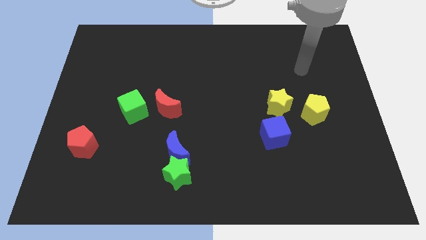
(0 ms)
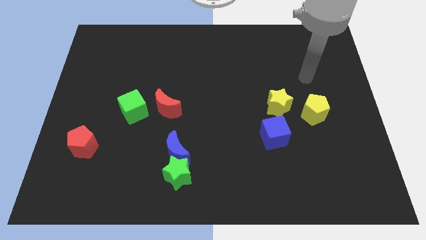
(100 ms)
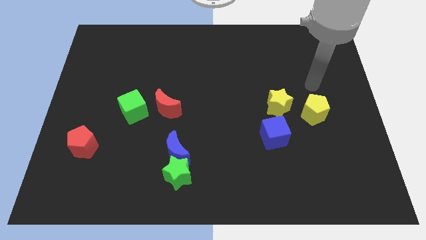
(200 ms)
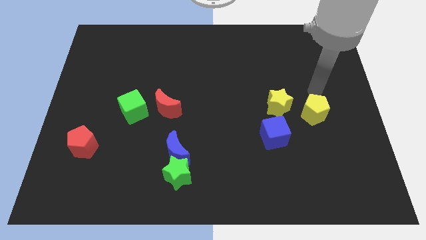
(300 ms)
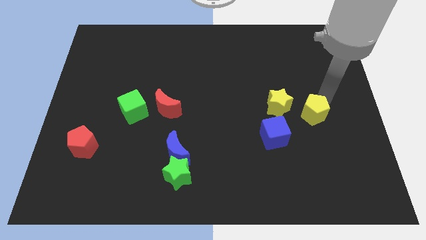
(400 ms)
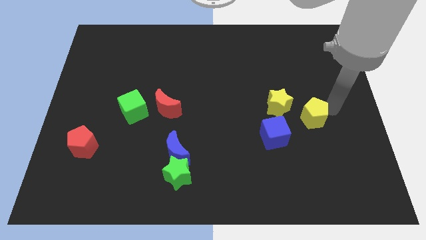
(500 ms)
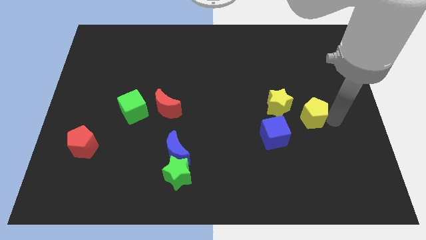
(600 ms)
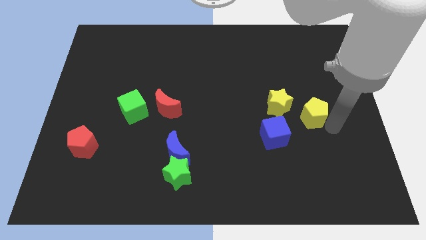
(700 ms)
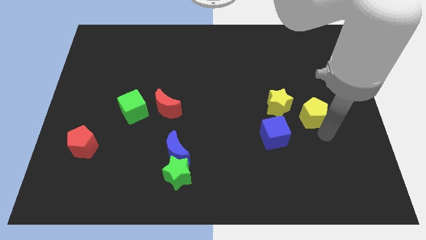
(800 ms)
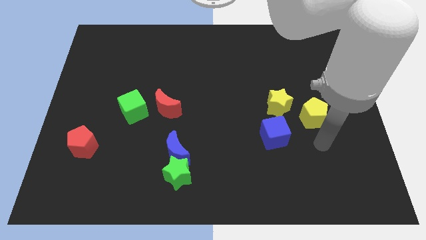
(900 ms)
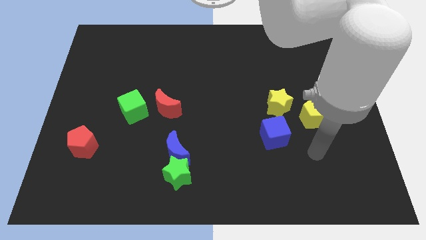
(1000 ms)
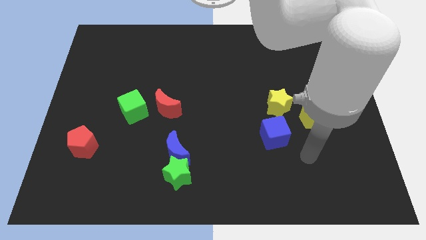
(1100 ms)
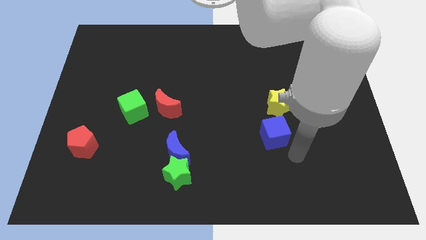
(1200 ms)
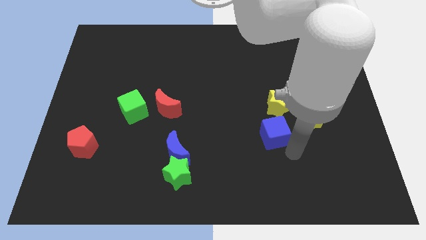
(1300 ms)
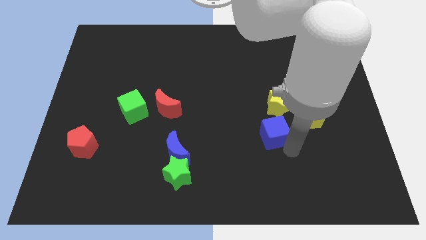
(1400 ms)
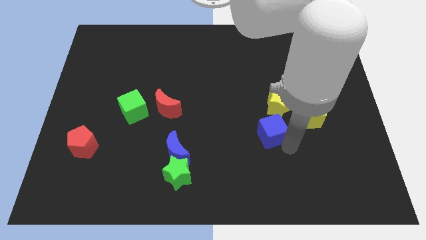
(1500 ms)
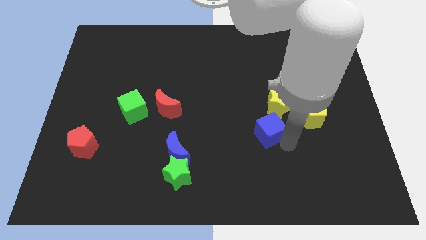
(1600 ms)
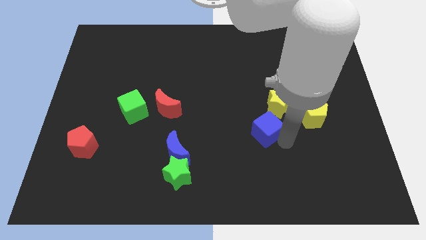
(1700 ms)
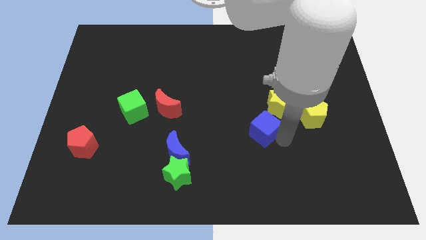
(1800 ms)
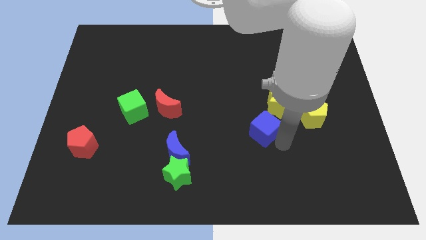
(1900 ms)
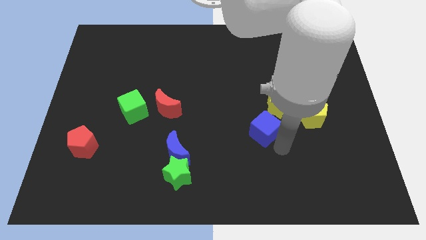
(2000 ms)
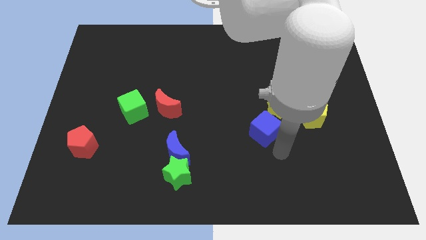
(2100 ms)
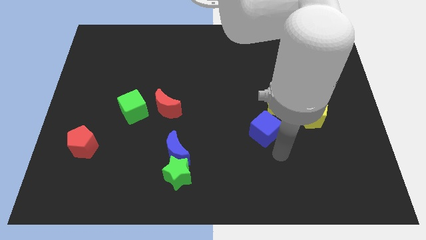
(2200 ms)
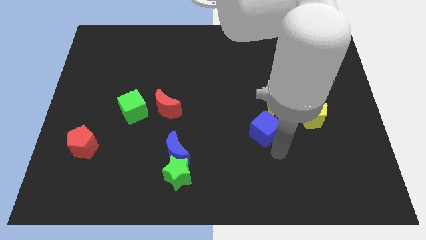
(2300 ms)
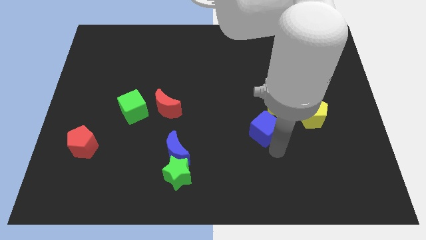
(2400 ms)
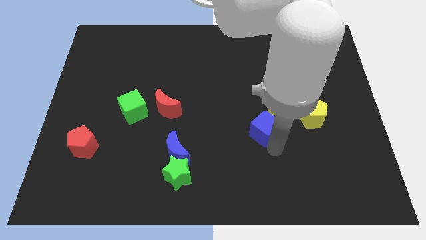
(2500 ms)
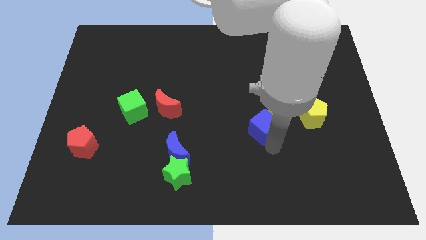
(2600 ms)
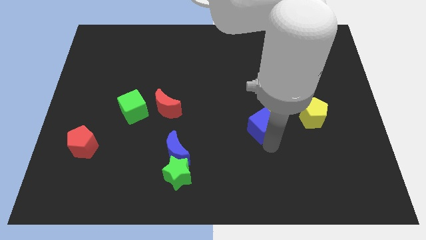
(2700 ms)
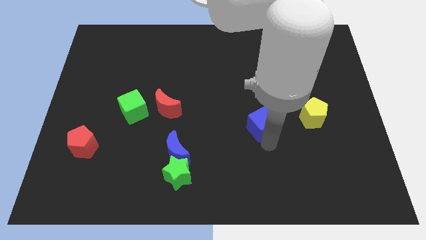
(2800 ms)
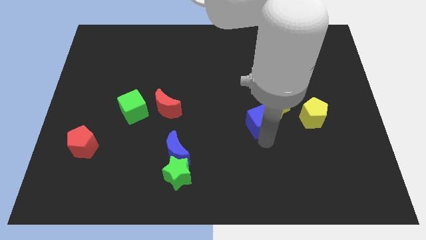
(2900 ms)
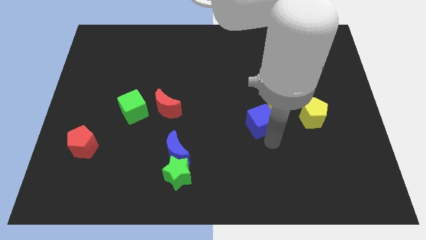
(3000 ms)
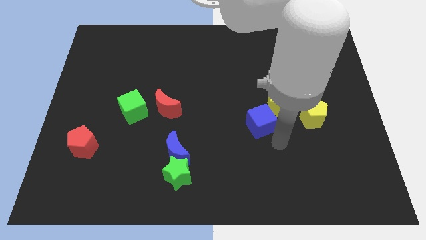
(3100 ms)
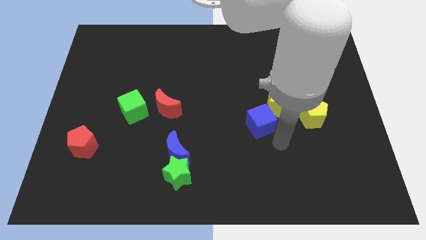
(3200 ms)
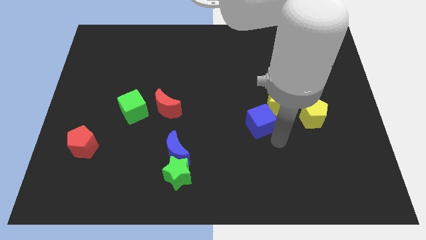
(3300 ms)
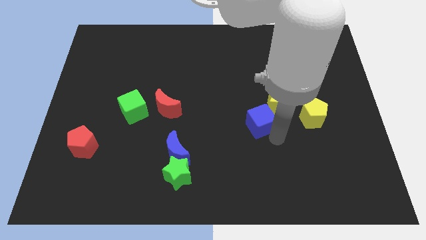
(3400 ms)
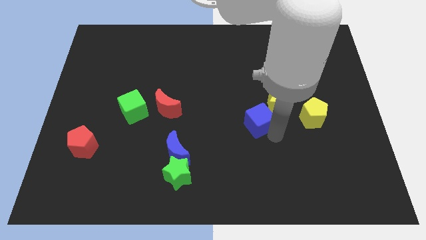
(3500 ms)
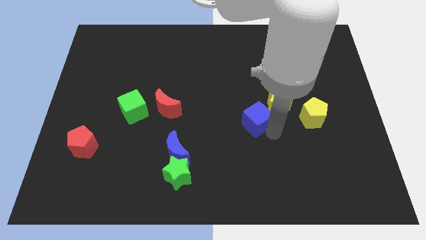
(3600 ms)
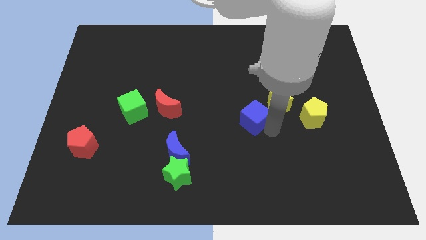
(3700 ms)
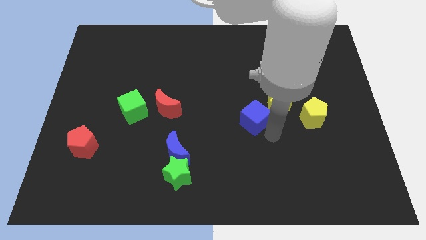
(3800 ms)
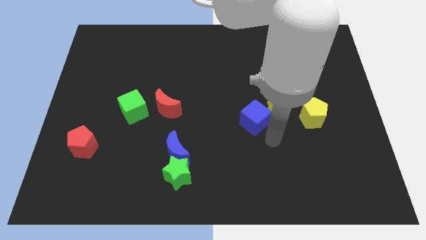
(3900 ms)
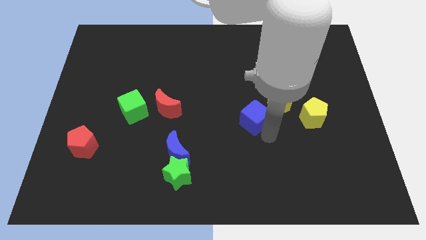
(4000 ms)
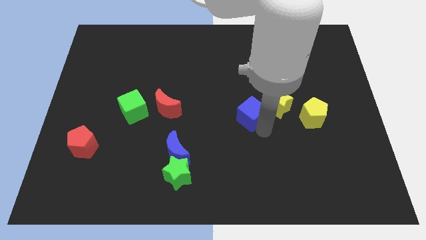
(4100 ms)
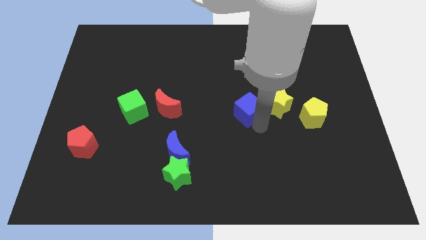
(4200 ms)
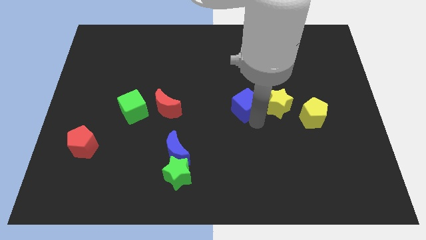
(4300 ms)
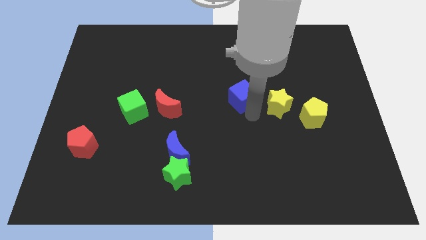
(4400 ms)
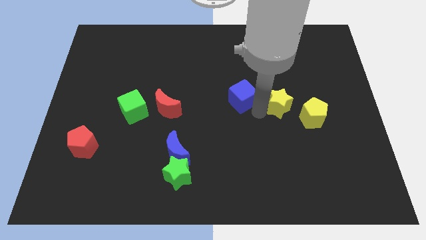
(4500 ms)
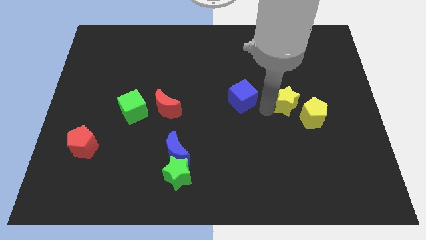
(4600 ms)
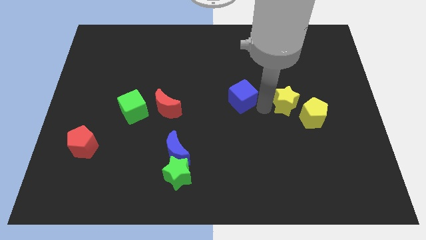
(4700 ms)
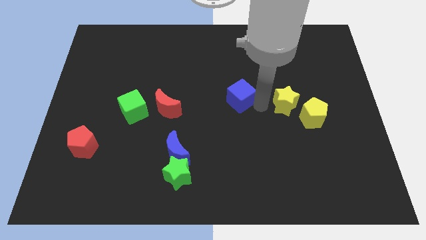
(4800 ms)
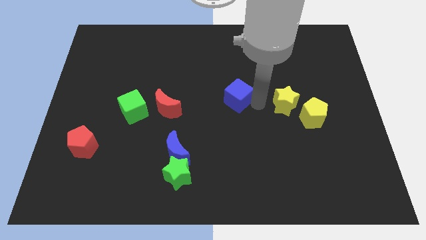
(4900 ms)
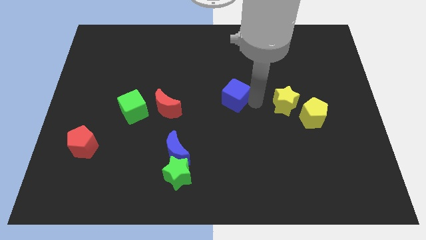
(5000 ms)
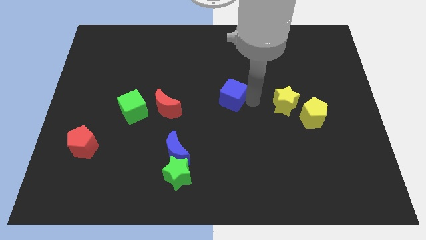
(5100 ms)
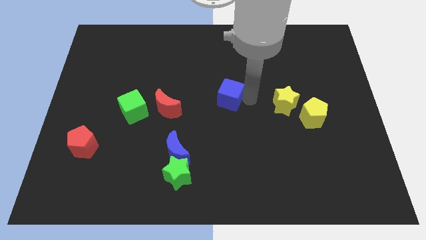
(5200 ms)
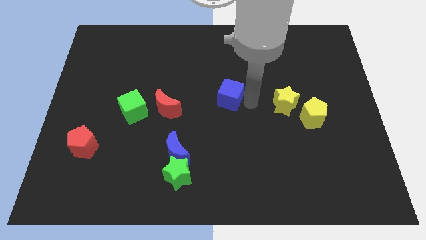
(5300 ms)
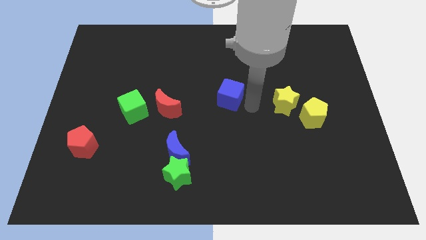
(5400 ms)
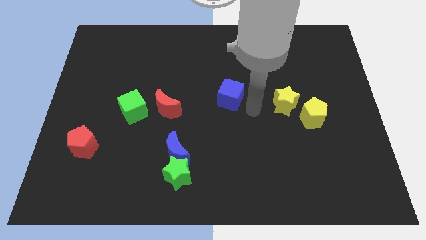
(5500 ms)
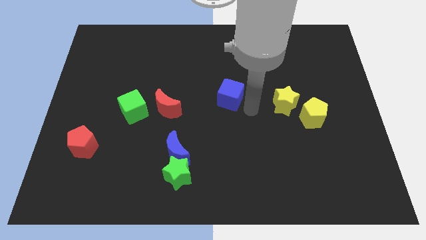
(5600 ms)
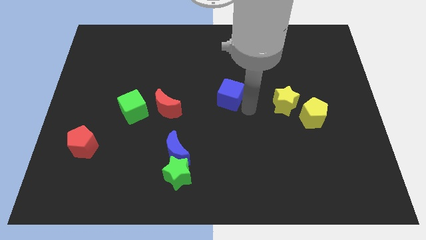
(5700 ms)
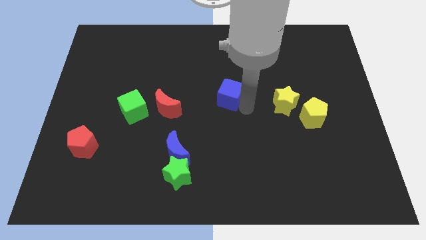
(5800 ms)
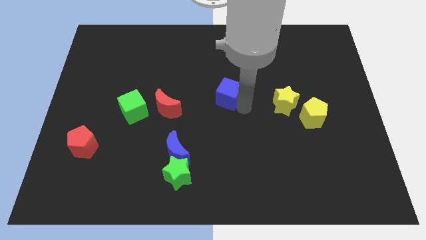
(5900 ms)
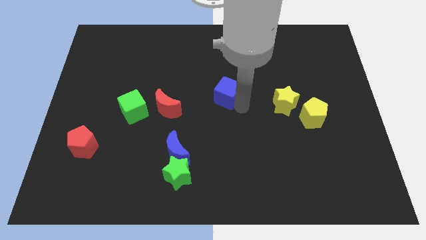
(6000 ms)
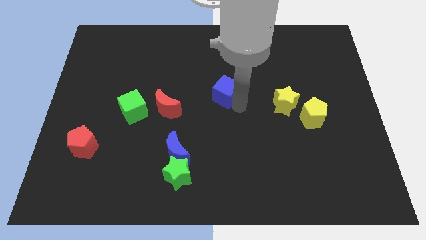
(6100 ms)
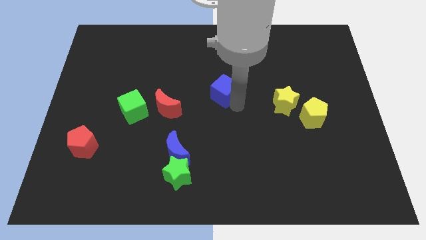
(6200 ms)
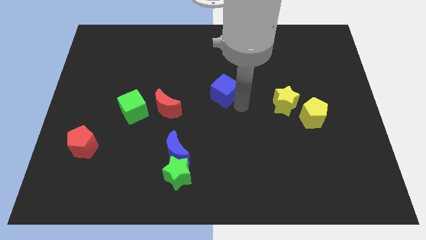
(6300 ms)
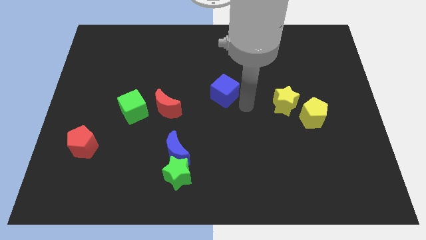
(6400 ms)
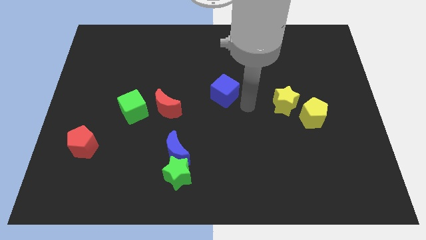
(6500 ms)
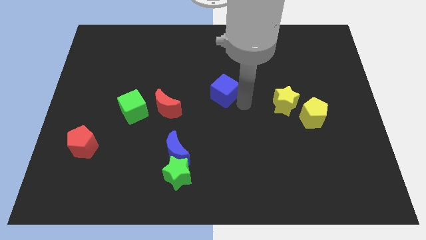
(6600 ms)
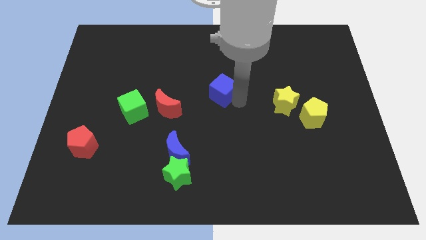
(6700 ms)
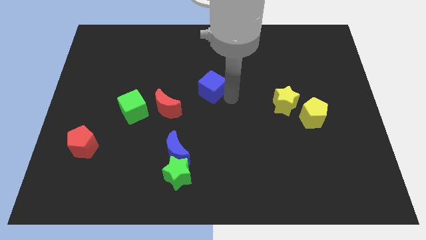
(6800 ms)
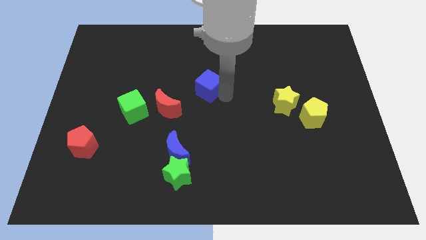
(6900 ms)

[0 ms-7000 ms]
push the blue cube up and to the left diagonally

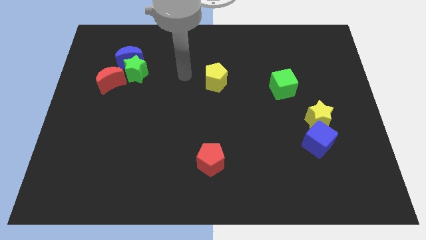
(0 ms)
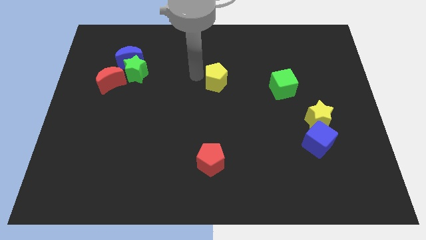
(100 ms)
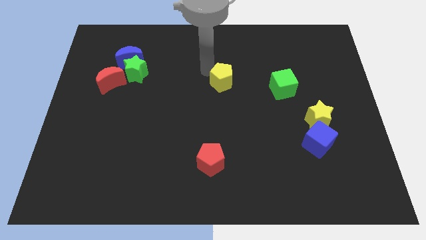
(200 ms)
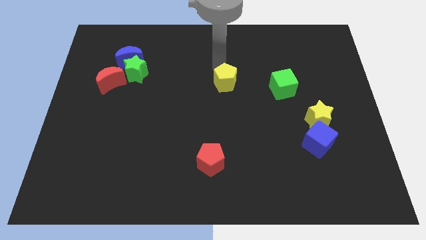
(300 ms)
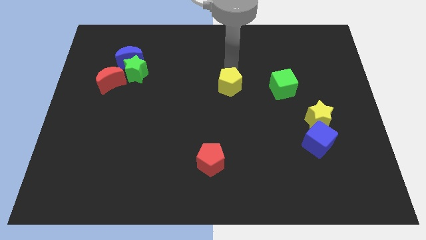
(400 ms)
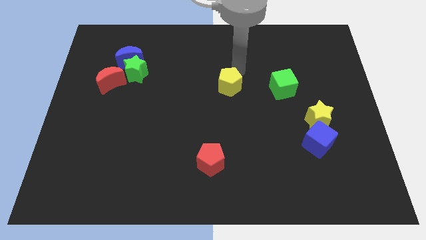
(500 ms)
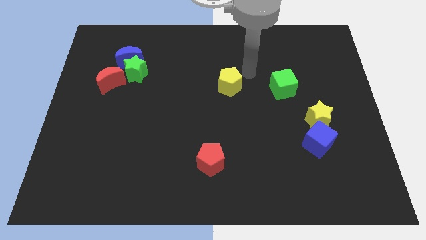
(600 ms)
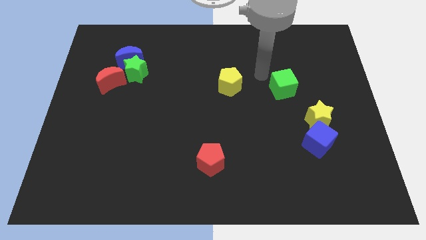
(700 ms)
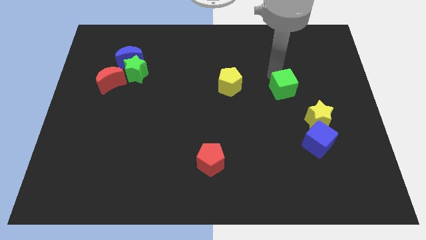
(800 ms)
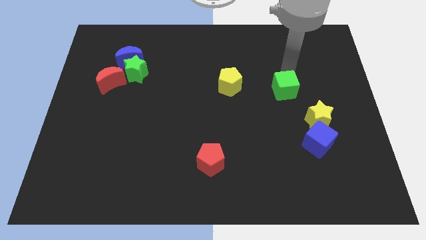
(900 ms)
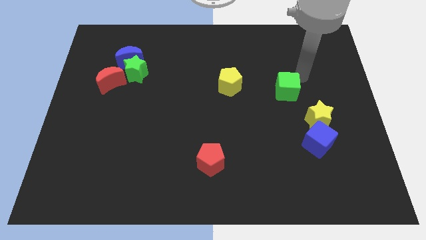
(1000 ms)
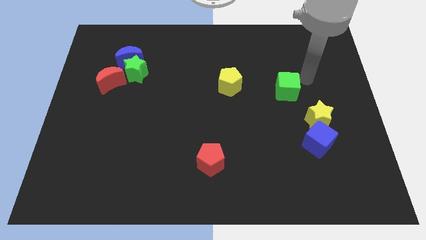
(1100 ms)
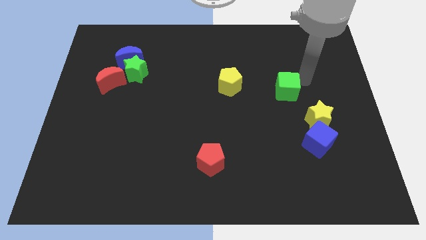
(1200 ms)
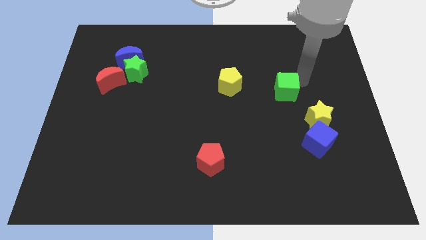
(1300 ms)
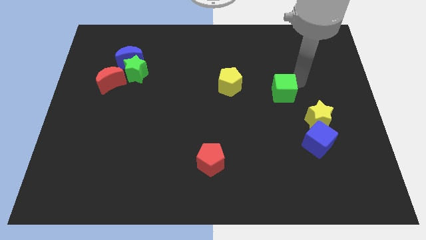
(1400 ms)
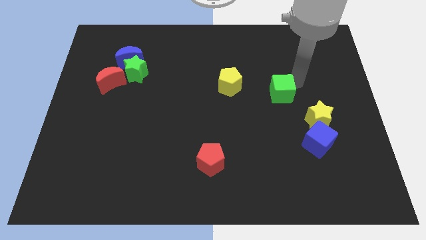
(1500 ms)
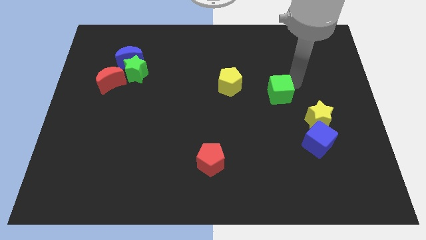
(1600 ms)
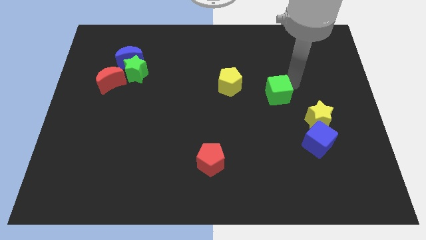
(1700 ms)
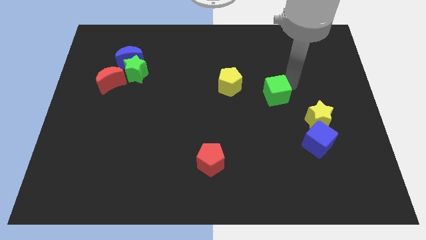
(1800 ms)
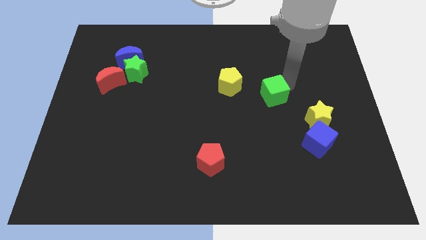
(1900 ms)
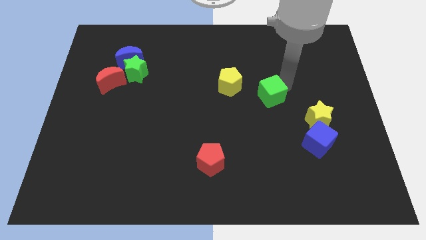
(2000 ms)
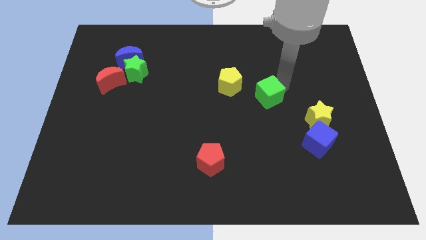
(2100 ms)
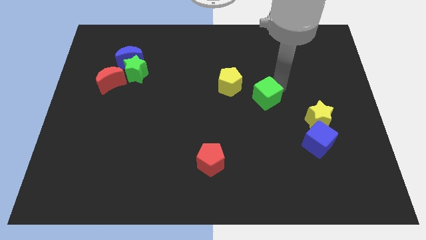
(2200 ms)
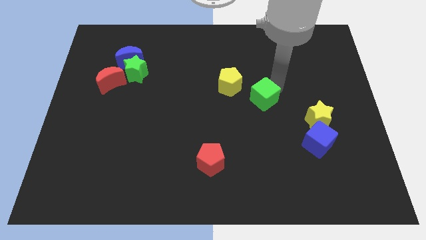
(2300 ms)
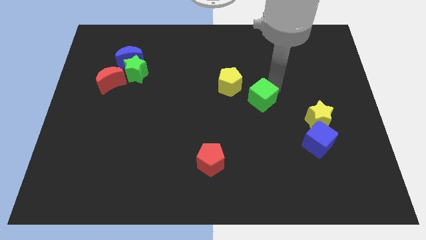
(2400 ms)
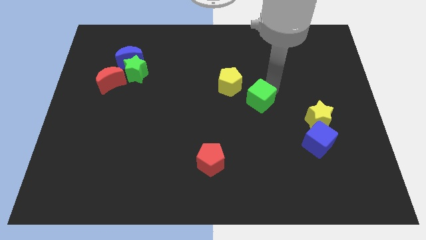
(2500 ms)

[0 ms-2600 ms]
push the green cube downwards and then to the left a bit
